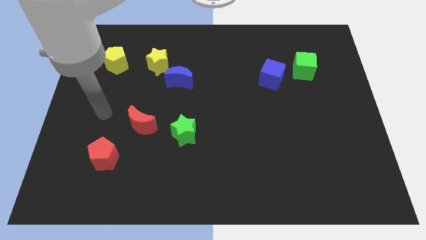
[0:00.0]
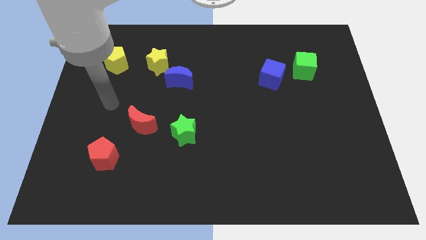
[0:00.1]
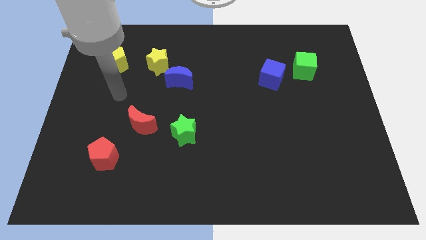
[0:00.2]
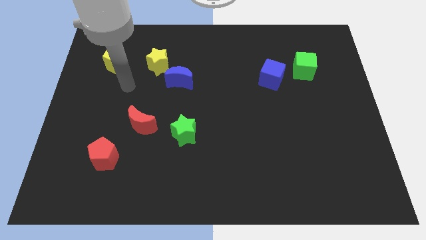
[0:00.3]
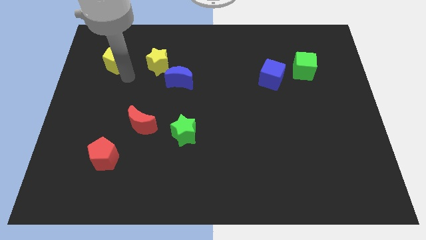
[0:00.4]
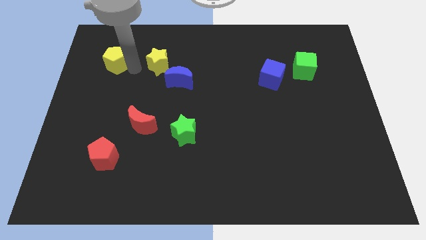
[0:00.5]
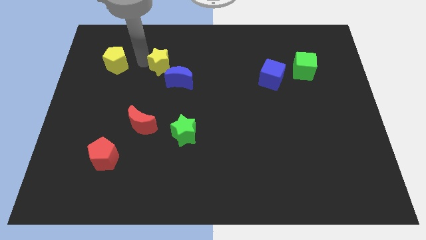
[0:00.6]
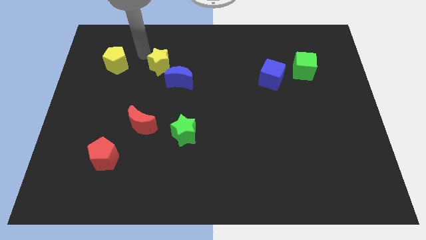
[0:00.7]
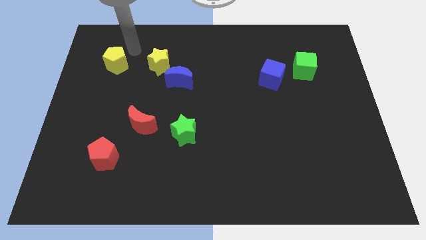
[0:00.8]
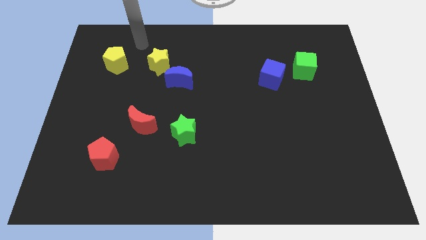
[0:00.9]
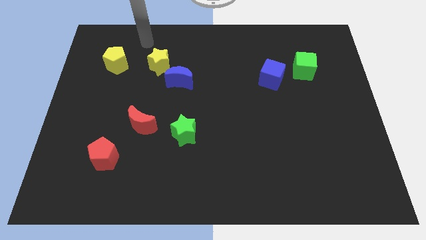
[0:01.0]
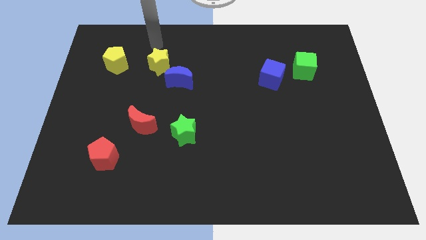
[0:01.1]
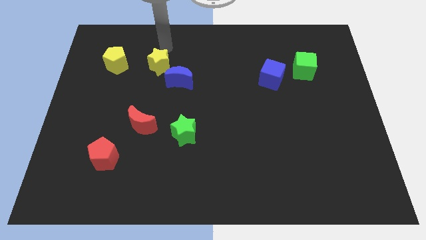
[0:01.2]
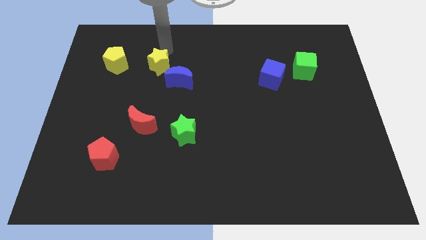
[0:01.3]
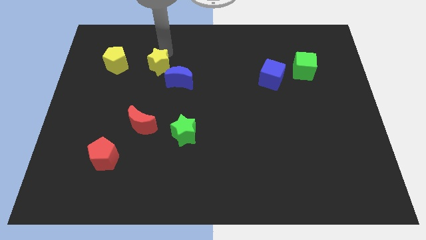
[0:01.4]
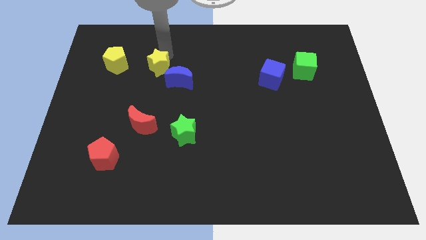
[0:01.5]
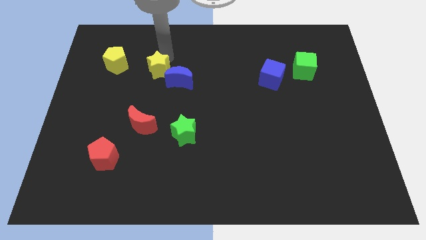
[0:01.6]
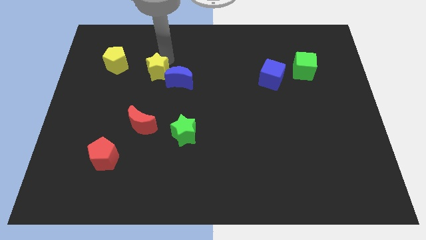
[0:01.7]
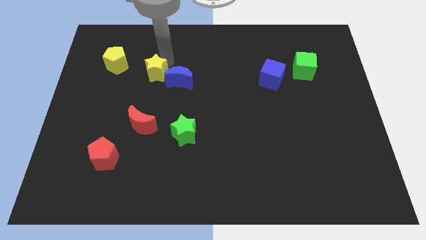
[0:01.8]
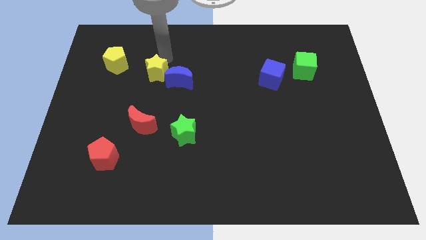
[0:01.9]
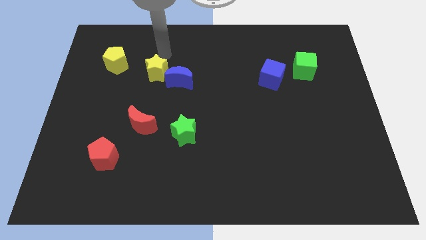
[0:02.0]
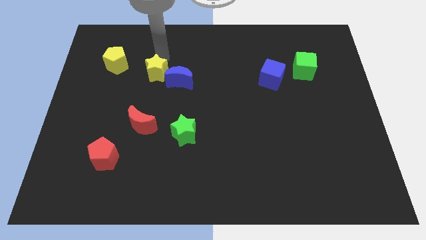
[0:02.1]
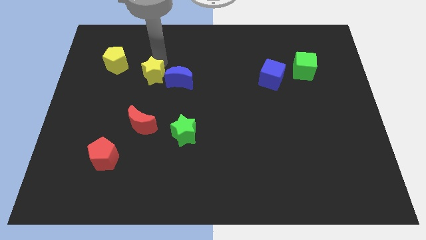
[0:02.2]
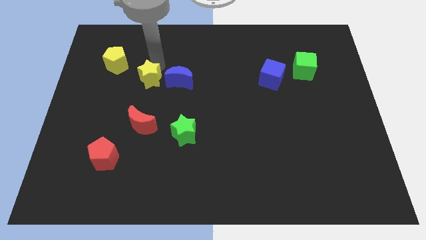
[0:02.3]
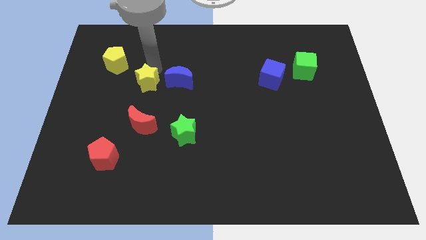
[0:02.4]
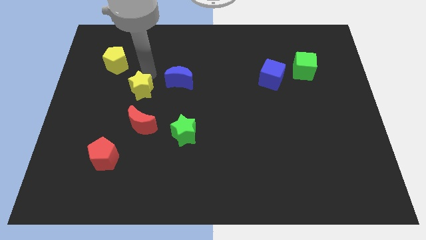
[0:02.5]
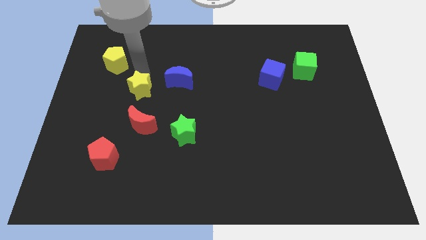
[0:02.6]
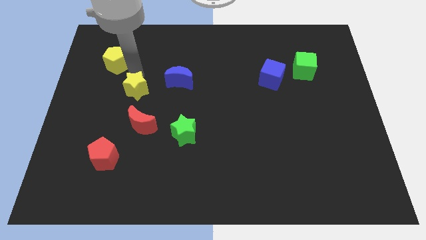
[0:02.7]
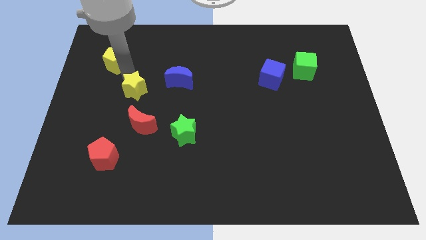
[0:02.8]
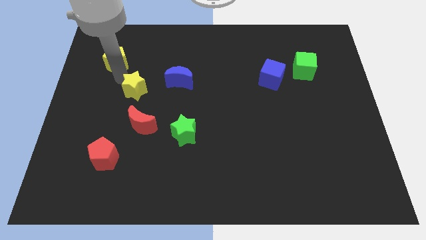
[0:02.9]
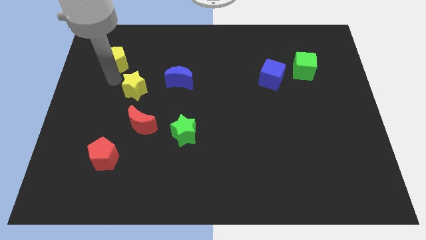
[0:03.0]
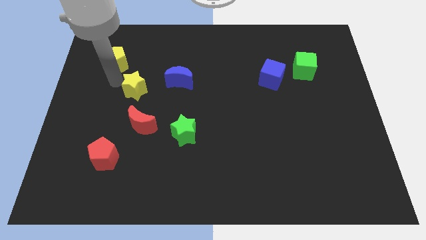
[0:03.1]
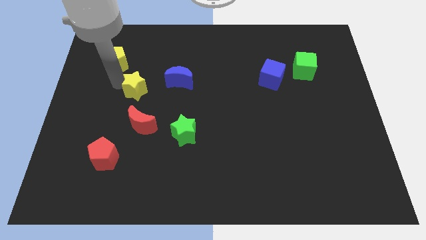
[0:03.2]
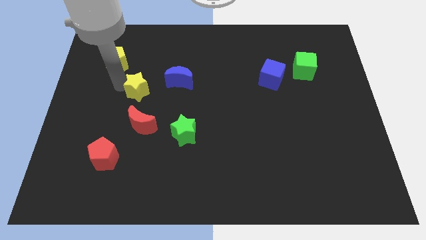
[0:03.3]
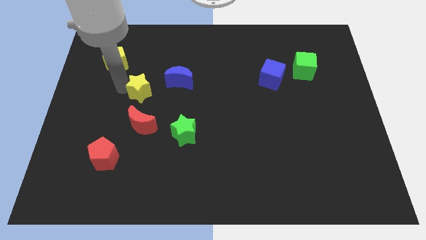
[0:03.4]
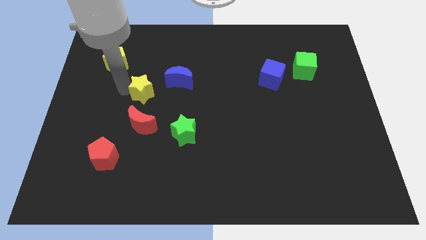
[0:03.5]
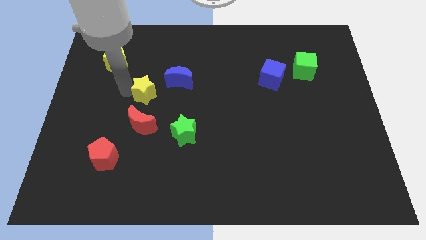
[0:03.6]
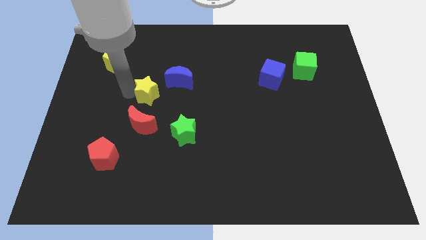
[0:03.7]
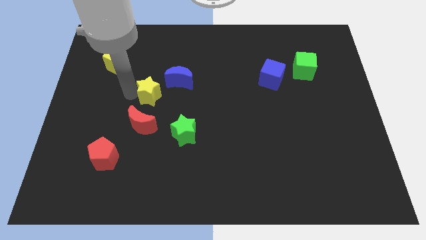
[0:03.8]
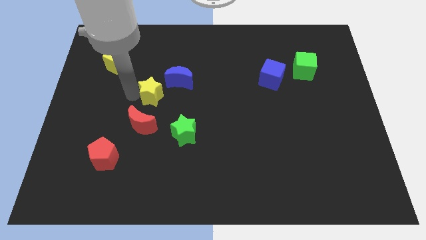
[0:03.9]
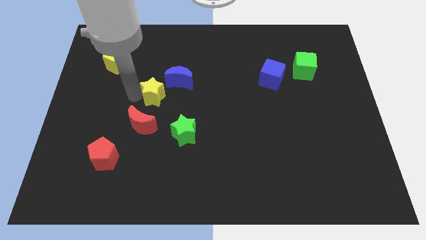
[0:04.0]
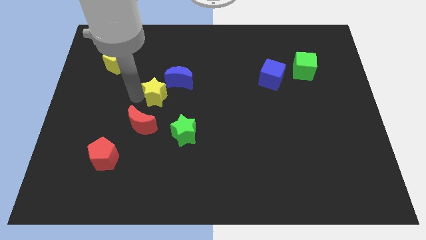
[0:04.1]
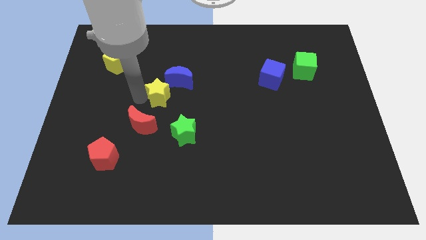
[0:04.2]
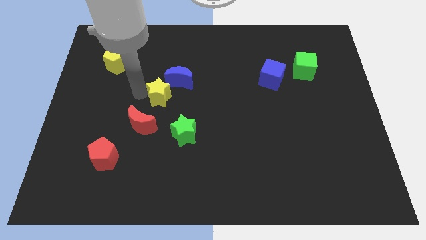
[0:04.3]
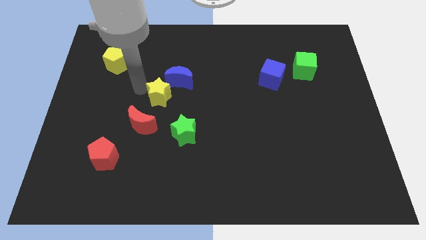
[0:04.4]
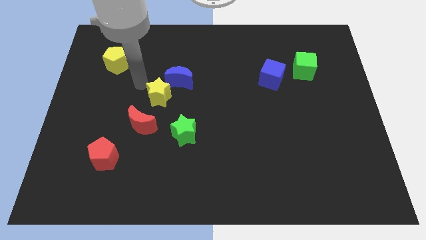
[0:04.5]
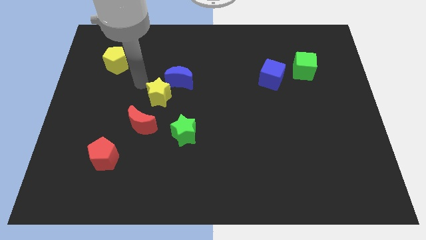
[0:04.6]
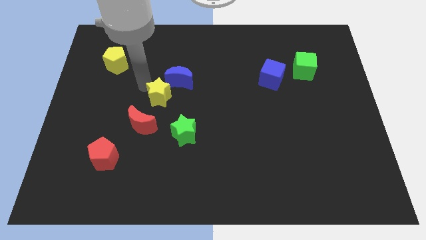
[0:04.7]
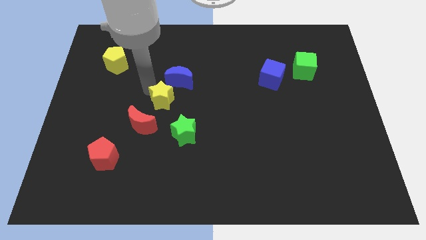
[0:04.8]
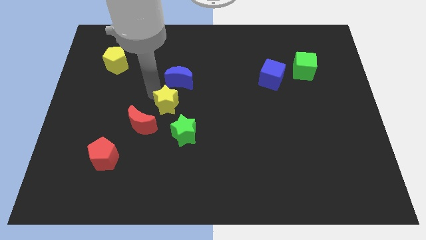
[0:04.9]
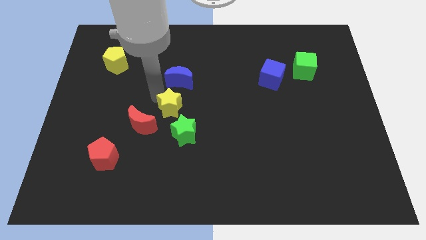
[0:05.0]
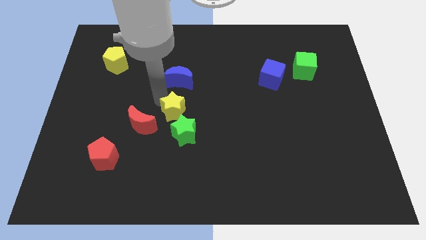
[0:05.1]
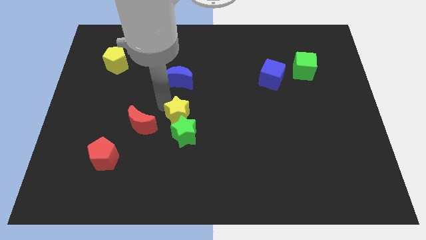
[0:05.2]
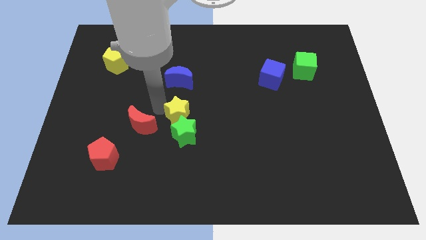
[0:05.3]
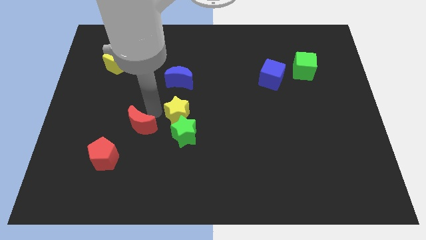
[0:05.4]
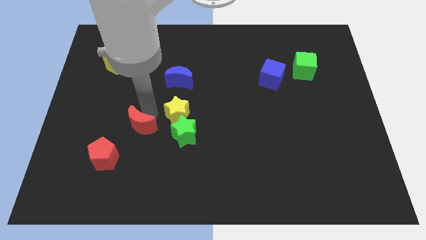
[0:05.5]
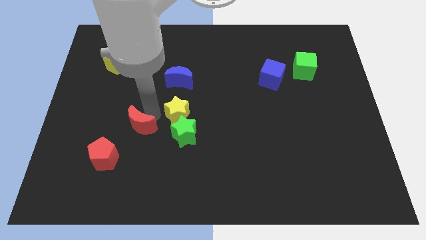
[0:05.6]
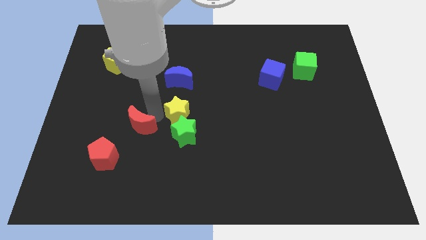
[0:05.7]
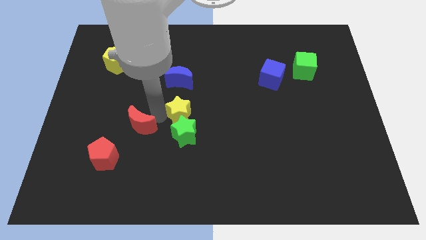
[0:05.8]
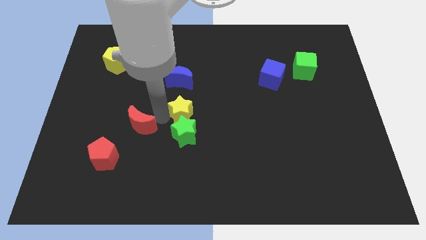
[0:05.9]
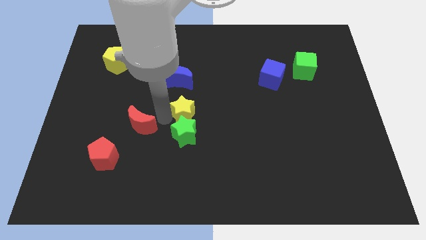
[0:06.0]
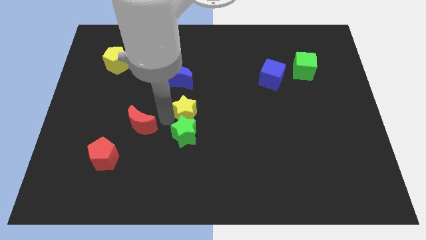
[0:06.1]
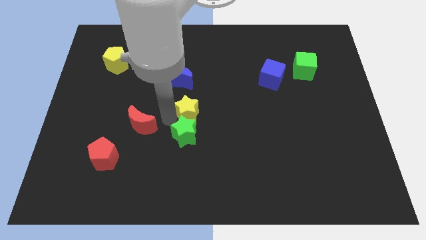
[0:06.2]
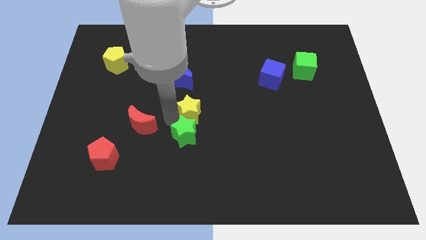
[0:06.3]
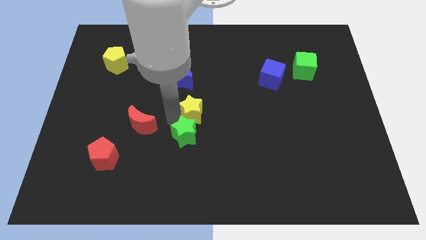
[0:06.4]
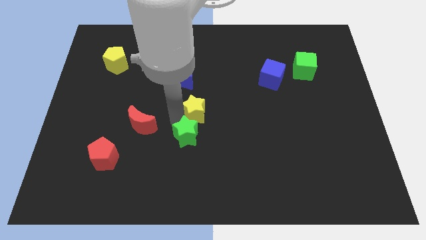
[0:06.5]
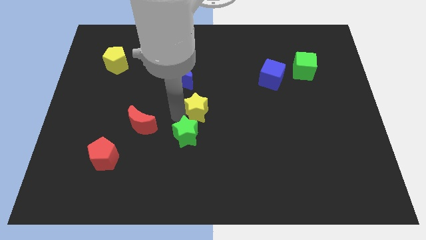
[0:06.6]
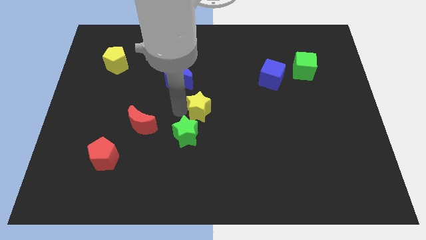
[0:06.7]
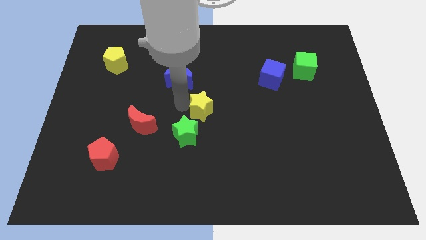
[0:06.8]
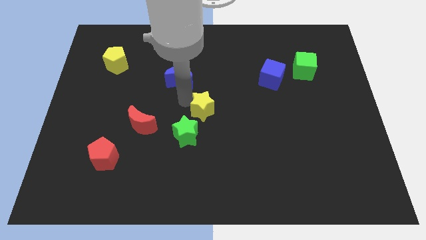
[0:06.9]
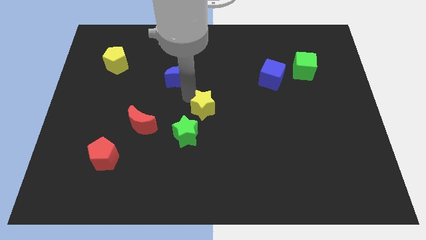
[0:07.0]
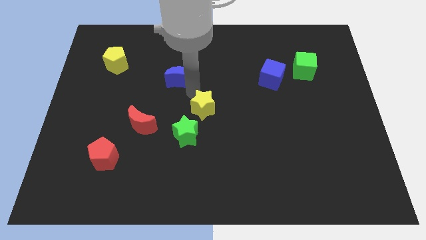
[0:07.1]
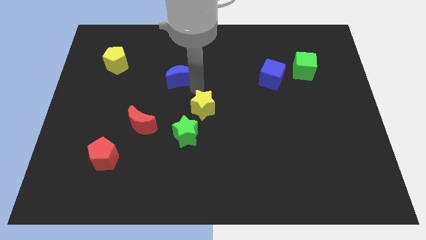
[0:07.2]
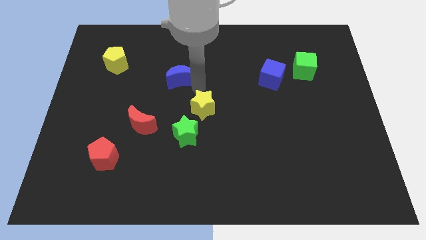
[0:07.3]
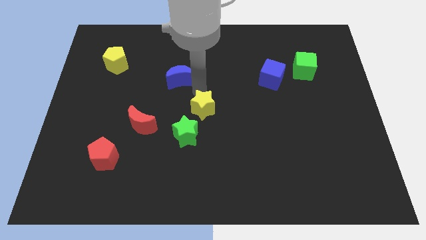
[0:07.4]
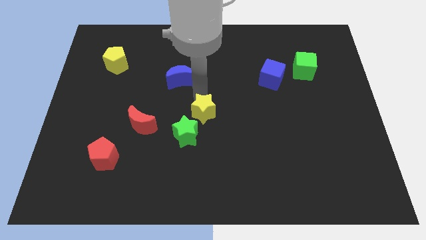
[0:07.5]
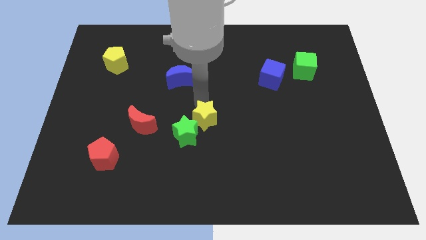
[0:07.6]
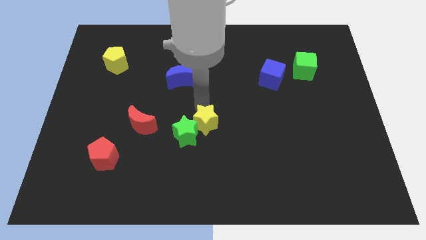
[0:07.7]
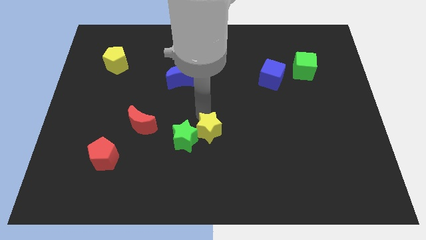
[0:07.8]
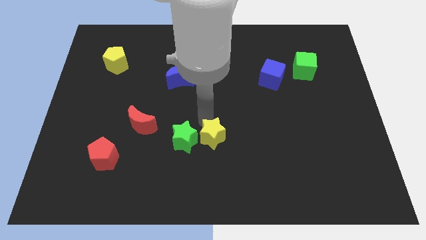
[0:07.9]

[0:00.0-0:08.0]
move the yellow star diagonally down and to the right of the green star
